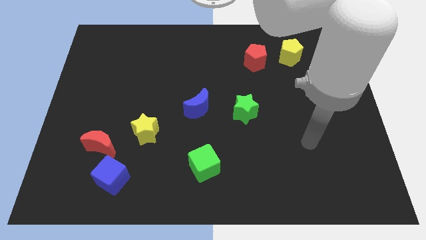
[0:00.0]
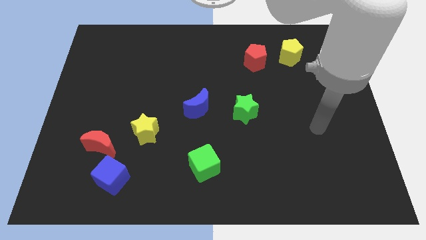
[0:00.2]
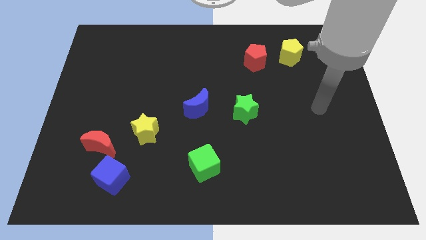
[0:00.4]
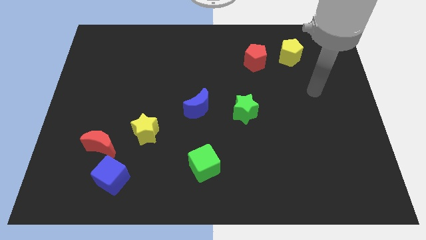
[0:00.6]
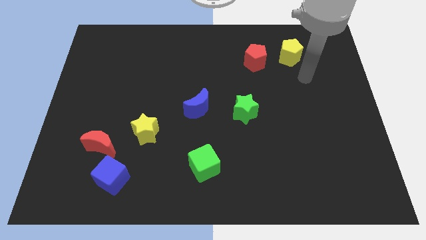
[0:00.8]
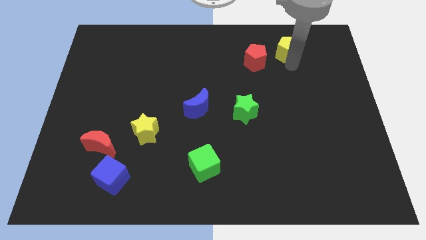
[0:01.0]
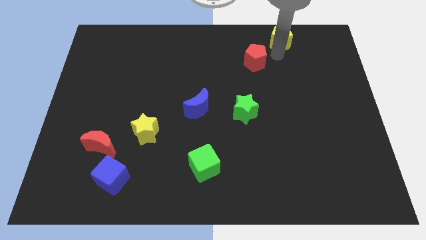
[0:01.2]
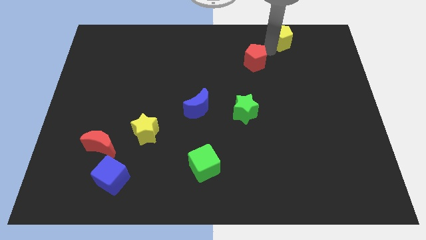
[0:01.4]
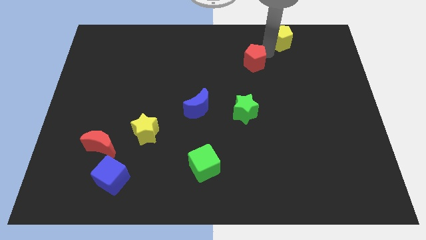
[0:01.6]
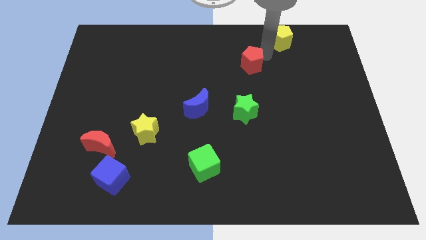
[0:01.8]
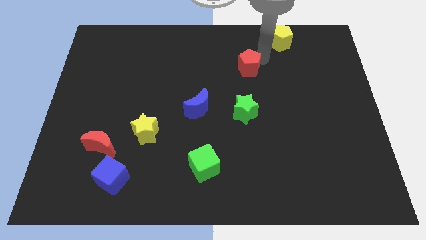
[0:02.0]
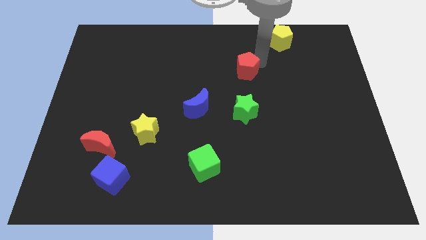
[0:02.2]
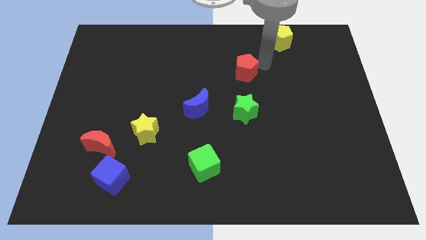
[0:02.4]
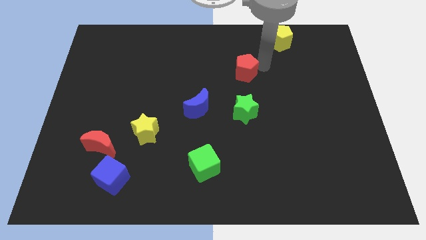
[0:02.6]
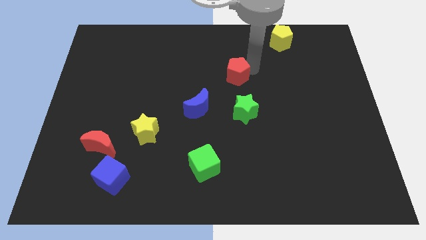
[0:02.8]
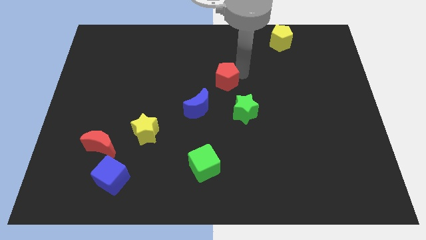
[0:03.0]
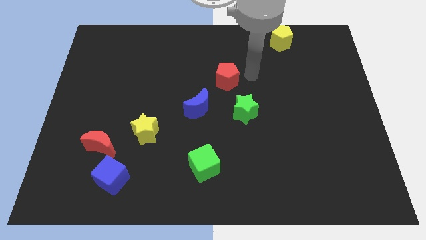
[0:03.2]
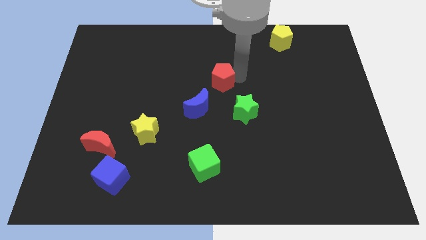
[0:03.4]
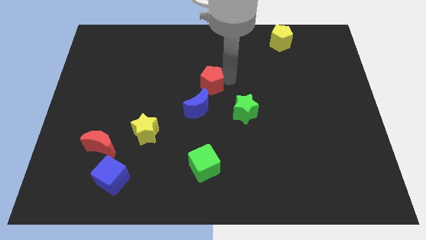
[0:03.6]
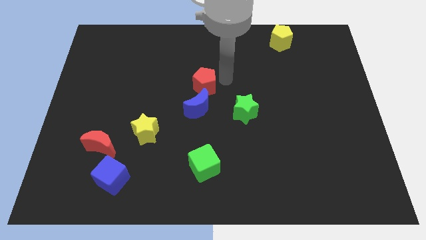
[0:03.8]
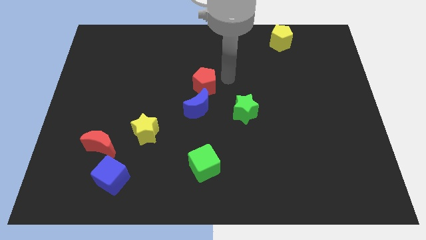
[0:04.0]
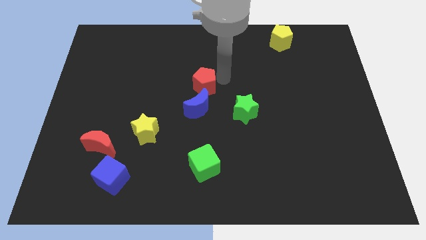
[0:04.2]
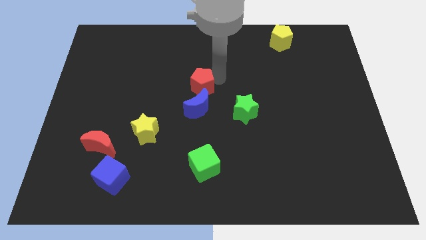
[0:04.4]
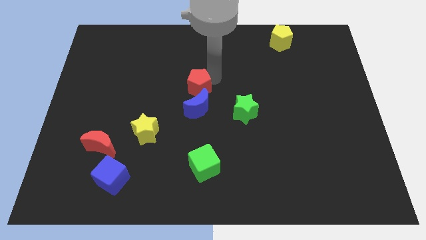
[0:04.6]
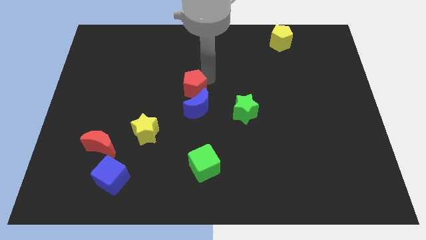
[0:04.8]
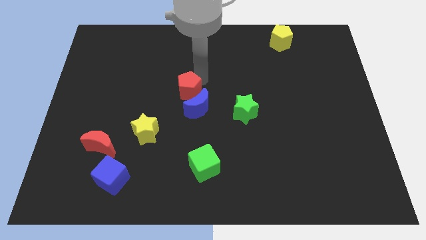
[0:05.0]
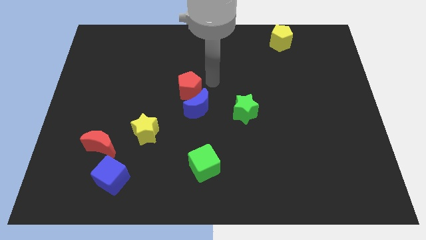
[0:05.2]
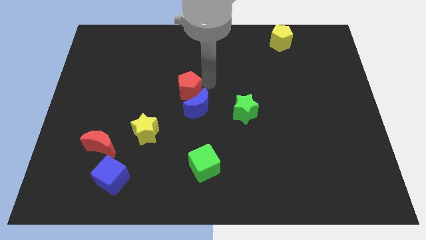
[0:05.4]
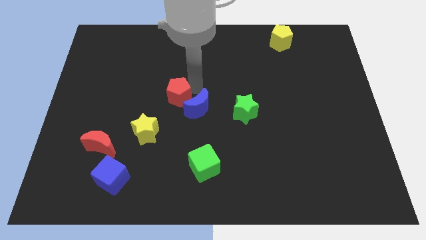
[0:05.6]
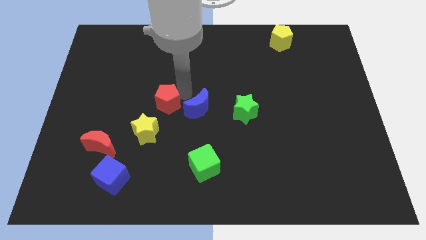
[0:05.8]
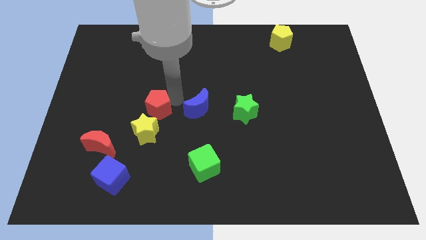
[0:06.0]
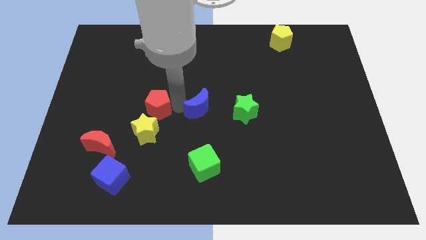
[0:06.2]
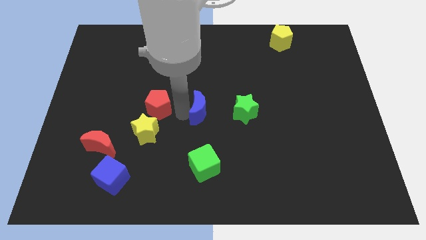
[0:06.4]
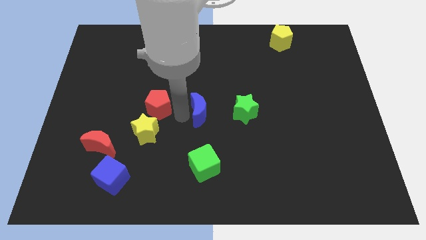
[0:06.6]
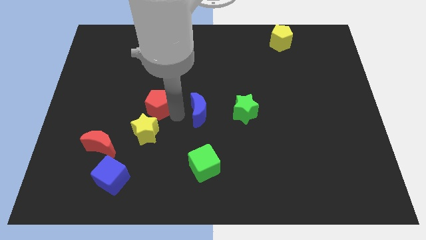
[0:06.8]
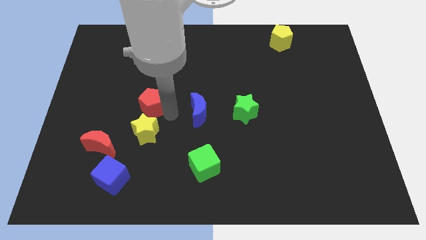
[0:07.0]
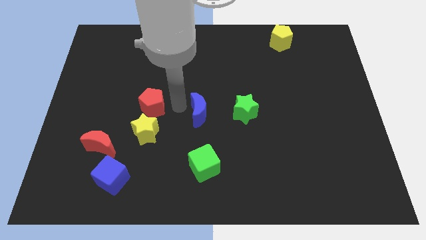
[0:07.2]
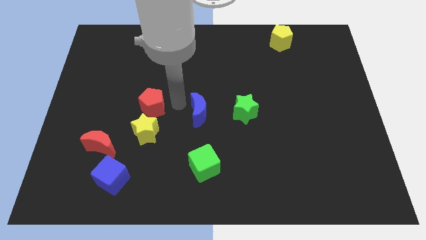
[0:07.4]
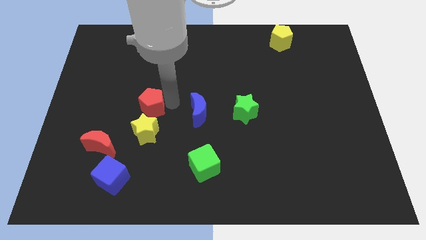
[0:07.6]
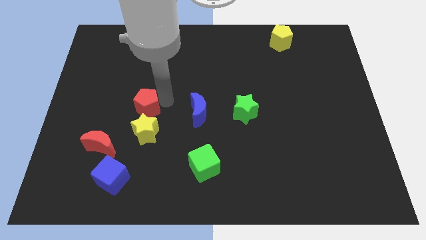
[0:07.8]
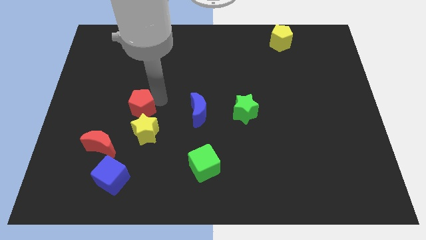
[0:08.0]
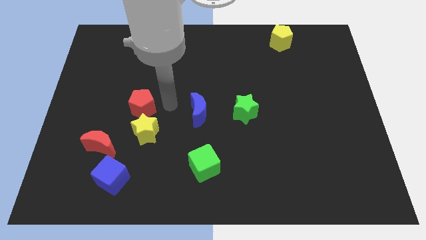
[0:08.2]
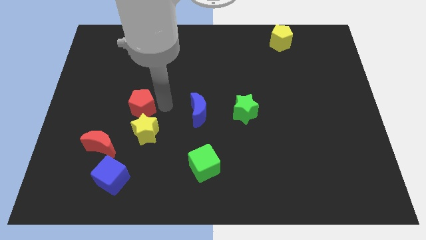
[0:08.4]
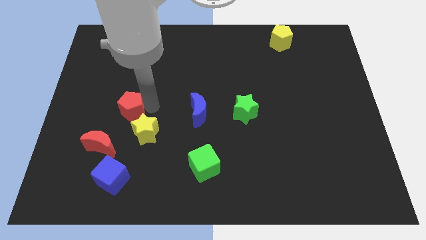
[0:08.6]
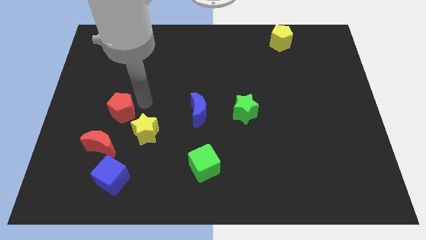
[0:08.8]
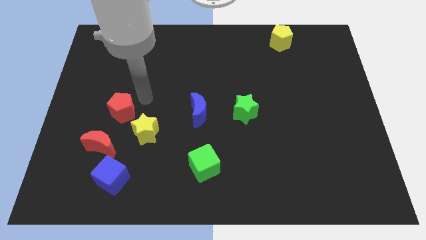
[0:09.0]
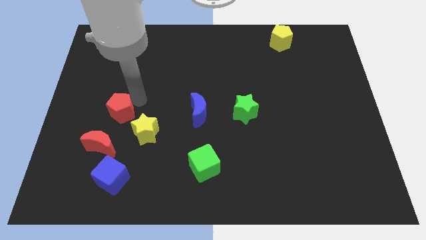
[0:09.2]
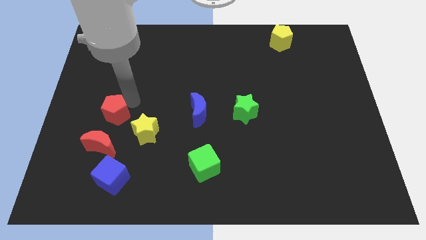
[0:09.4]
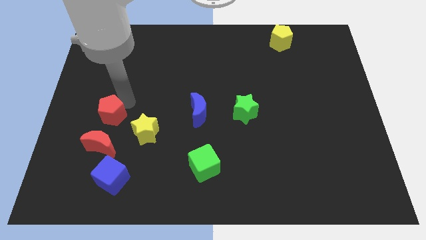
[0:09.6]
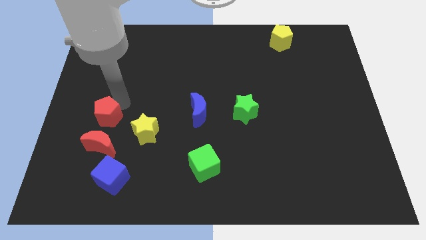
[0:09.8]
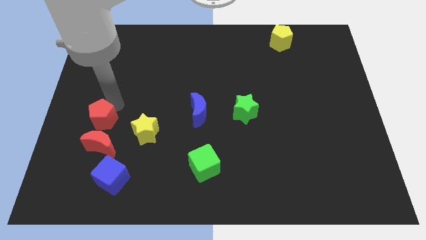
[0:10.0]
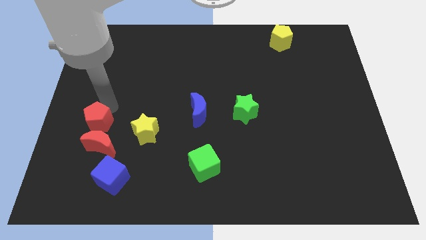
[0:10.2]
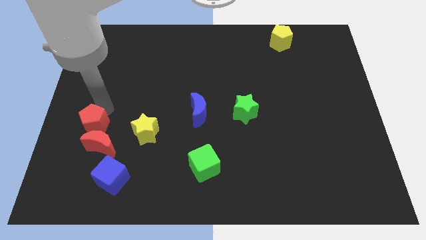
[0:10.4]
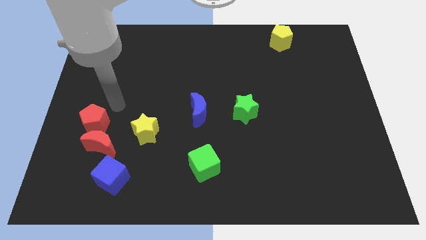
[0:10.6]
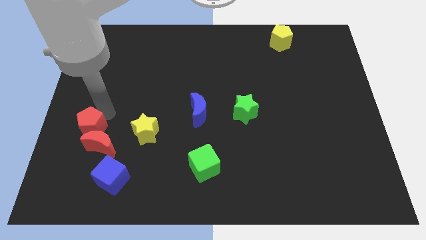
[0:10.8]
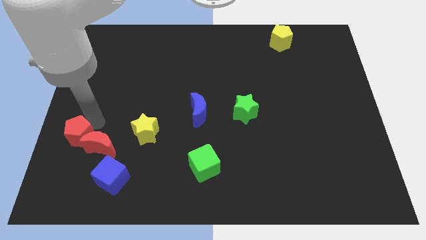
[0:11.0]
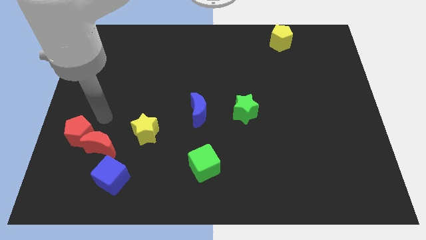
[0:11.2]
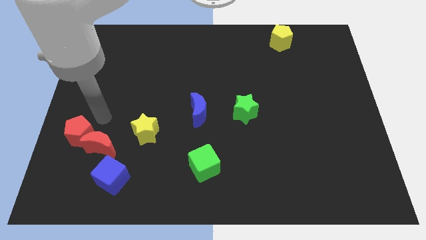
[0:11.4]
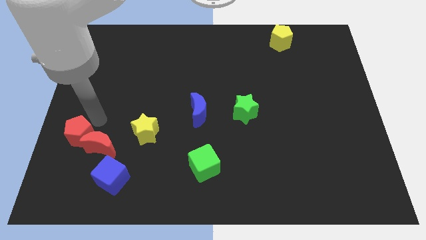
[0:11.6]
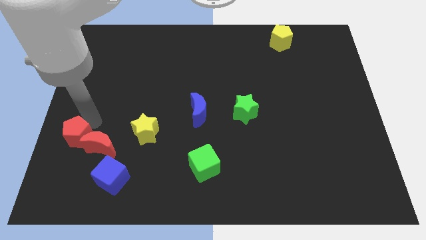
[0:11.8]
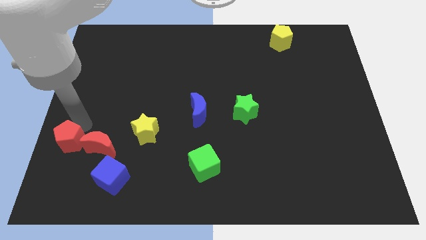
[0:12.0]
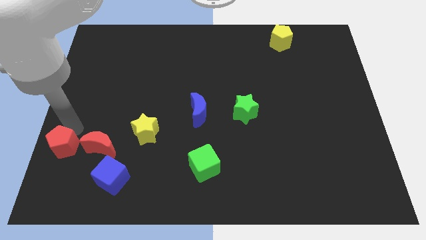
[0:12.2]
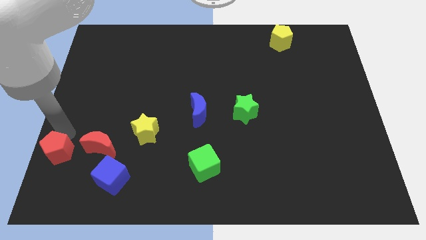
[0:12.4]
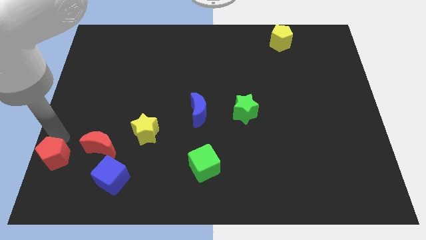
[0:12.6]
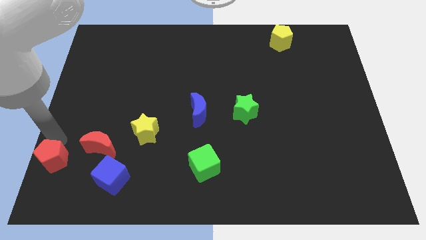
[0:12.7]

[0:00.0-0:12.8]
move the red pentagon to the bottom left of the board
